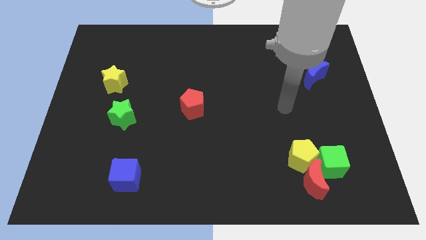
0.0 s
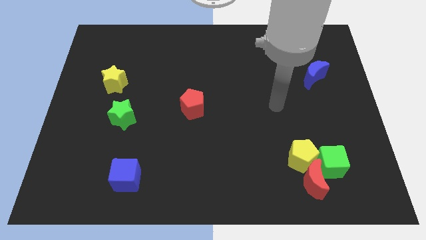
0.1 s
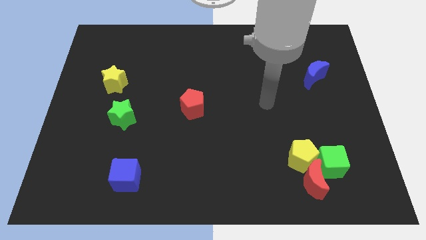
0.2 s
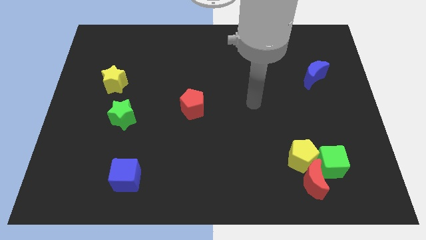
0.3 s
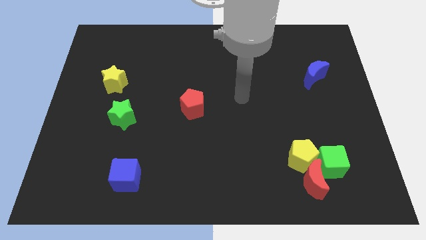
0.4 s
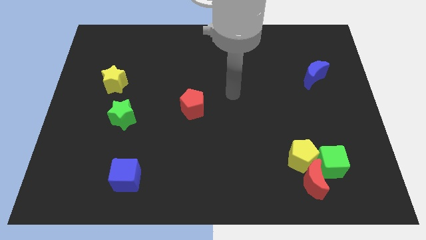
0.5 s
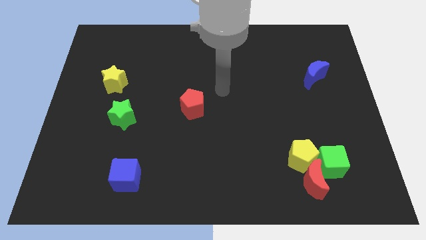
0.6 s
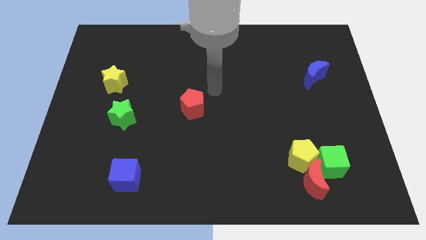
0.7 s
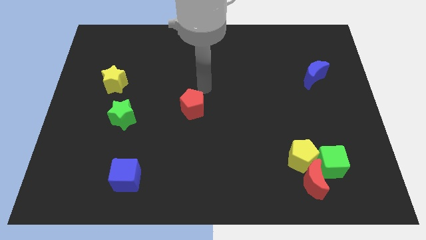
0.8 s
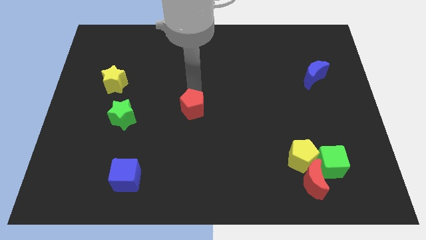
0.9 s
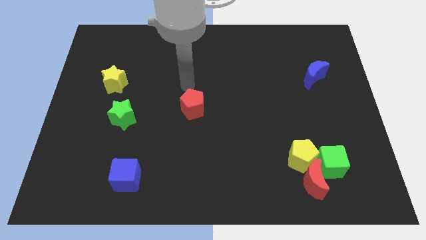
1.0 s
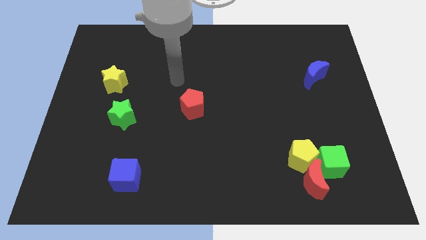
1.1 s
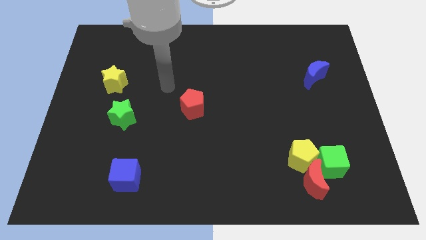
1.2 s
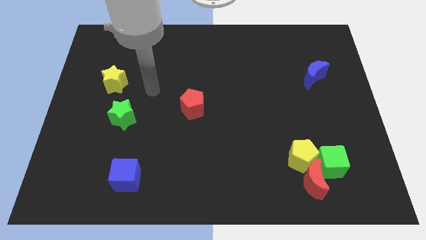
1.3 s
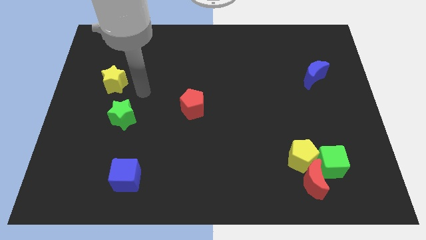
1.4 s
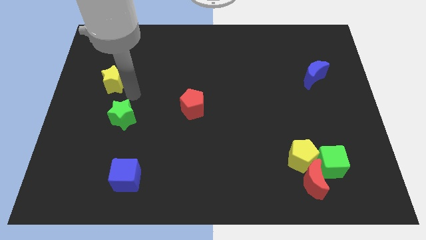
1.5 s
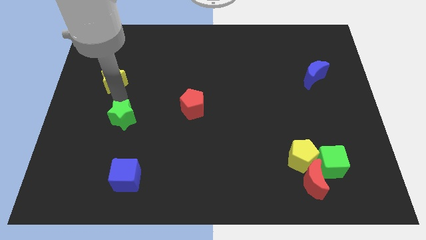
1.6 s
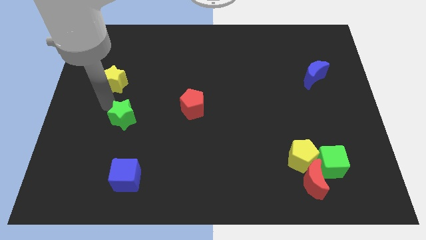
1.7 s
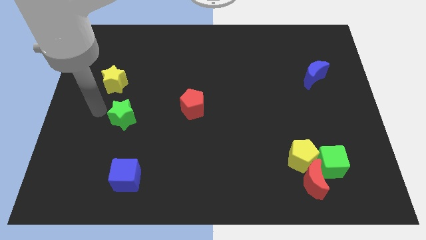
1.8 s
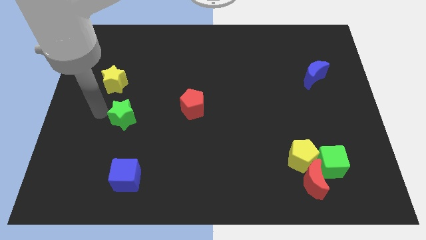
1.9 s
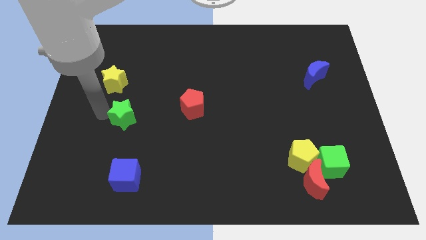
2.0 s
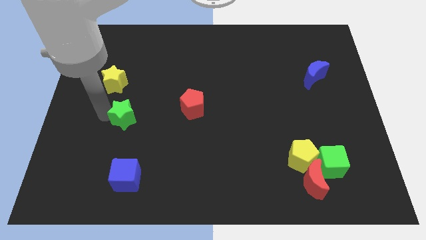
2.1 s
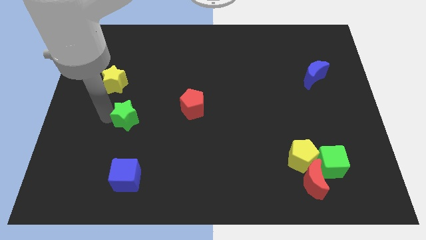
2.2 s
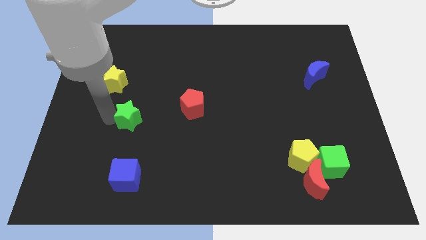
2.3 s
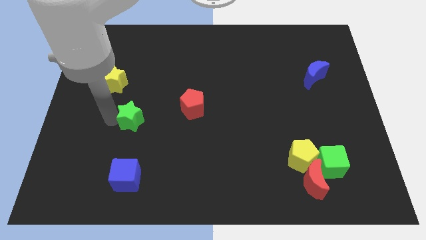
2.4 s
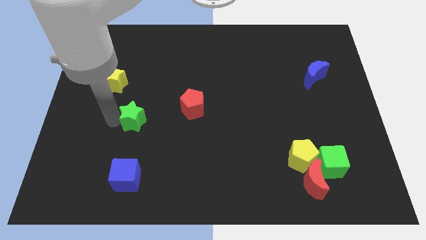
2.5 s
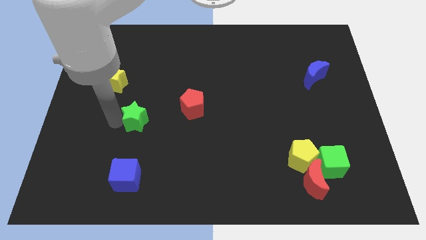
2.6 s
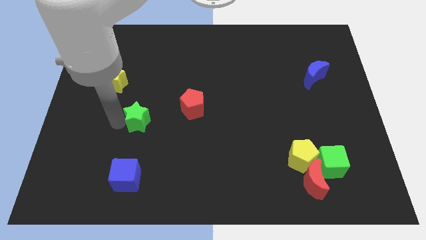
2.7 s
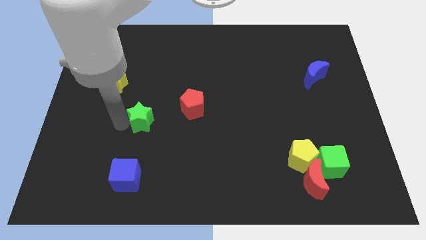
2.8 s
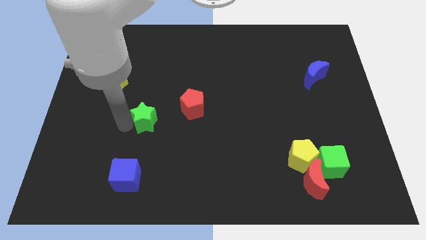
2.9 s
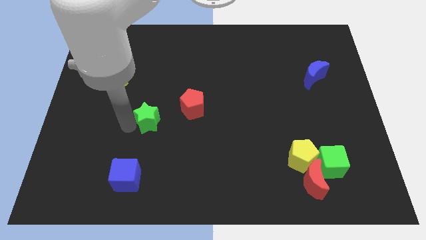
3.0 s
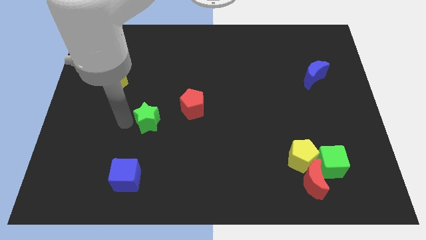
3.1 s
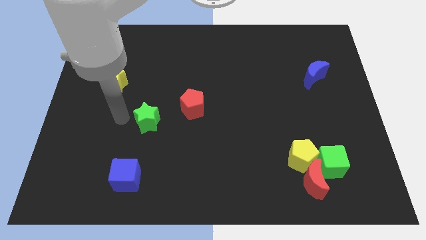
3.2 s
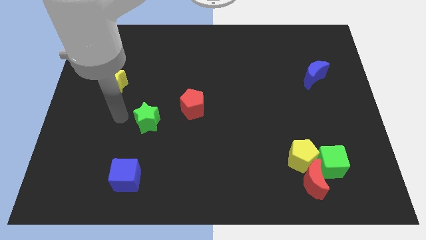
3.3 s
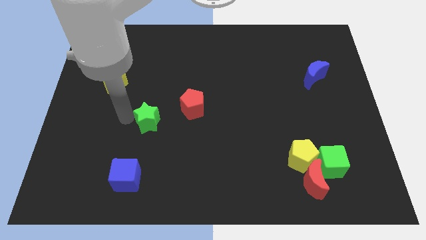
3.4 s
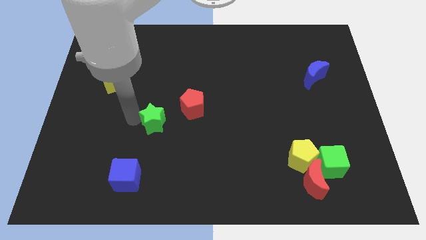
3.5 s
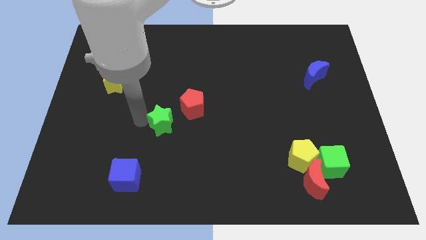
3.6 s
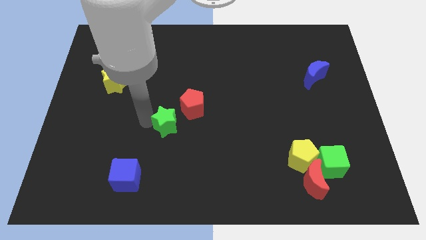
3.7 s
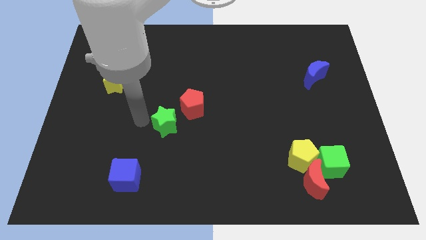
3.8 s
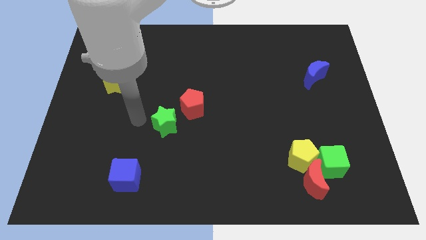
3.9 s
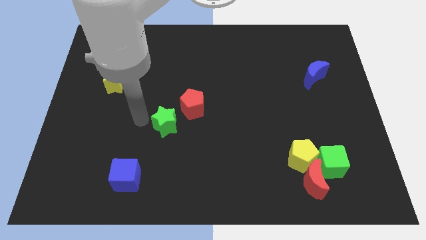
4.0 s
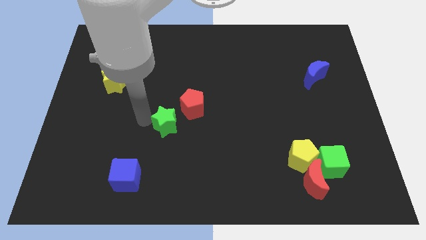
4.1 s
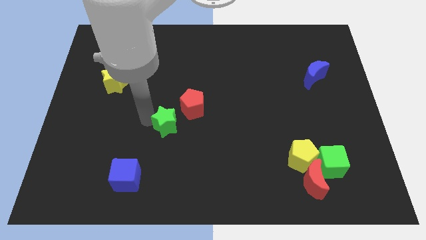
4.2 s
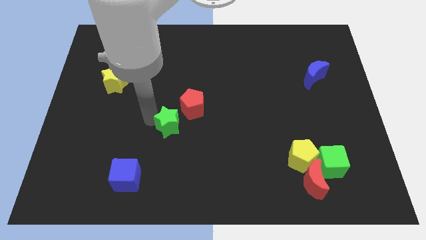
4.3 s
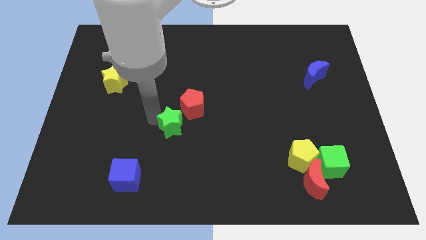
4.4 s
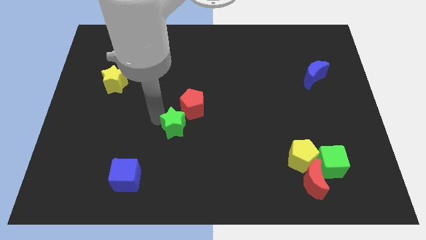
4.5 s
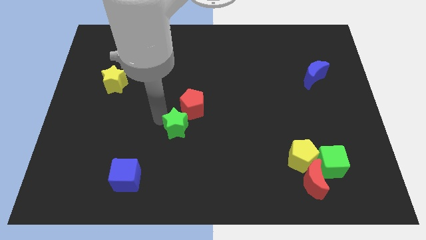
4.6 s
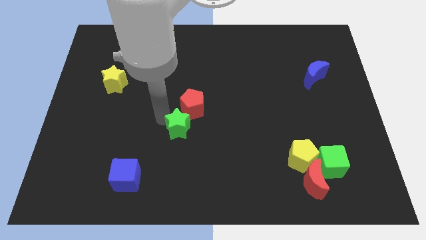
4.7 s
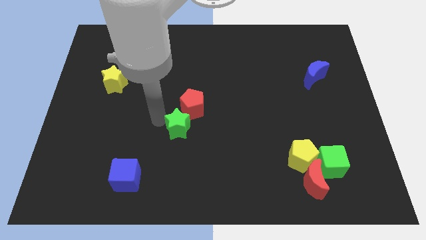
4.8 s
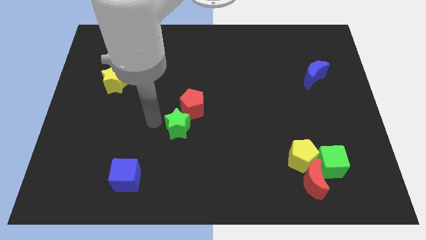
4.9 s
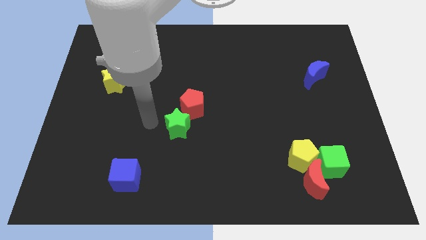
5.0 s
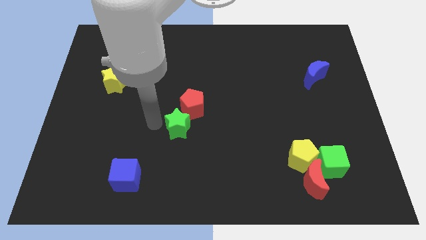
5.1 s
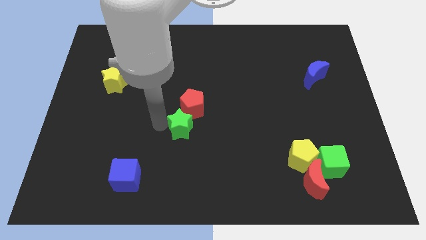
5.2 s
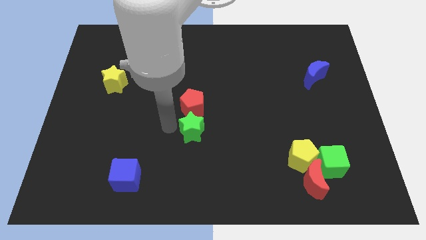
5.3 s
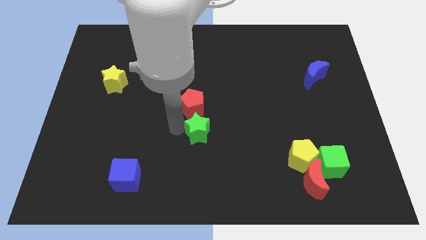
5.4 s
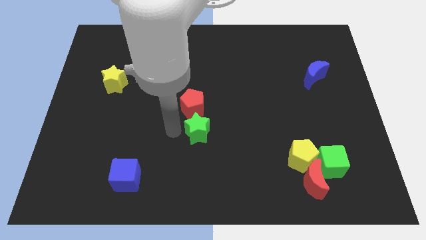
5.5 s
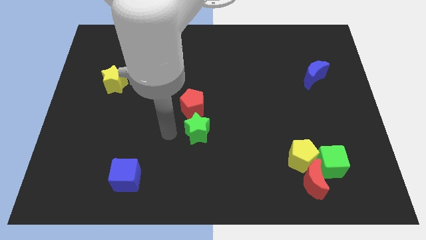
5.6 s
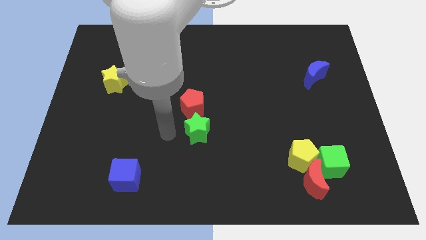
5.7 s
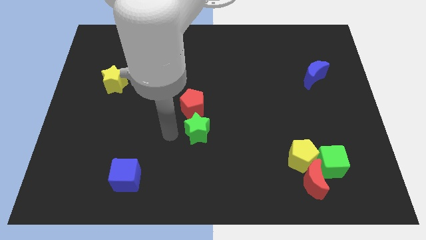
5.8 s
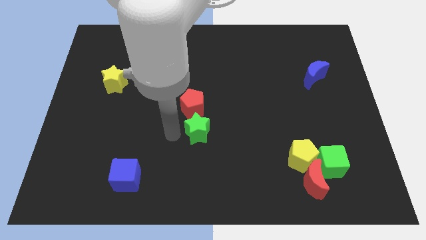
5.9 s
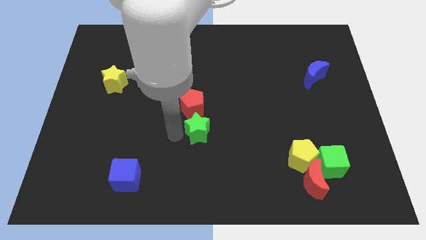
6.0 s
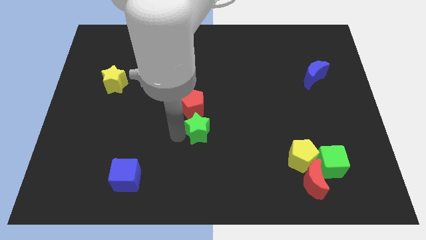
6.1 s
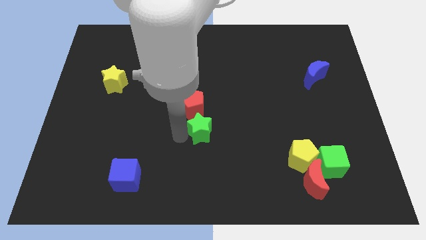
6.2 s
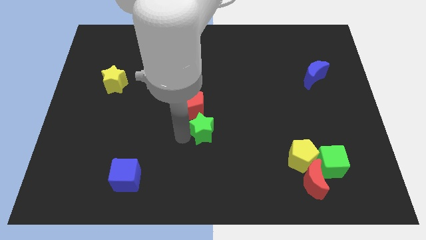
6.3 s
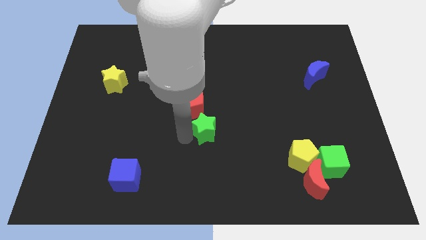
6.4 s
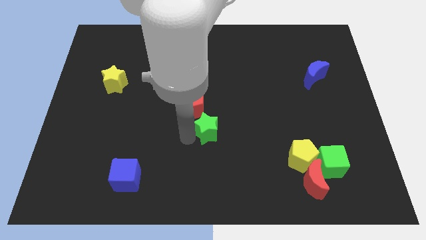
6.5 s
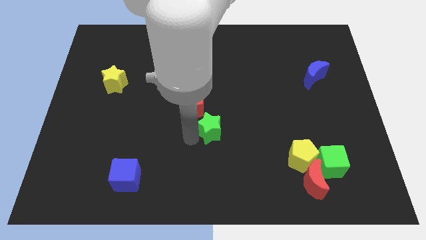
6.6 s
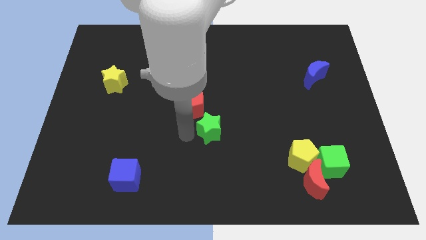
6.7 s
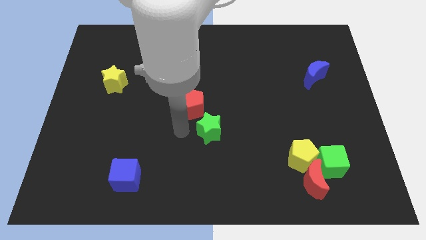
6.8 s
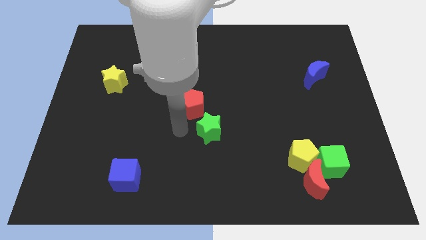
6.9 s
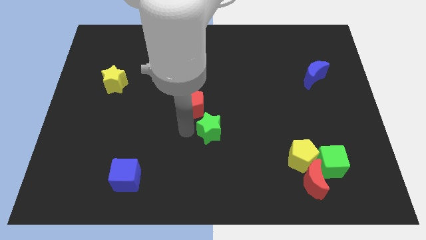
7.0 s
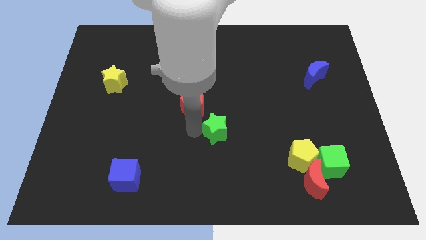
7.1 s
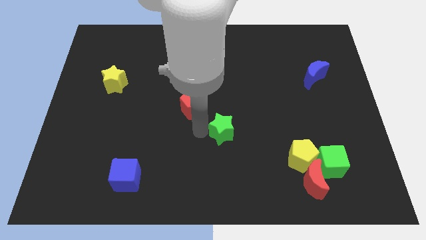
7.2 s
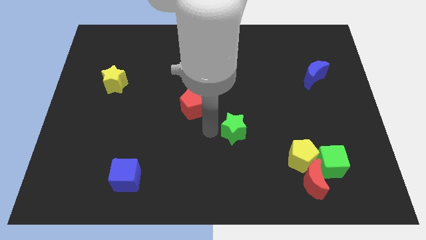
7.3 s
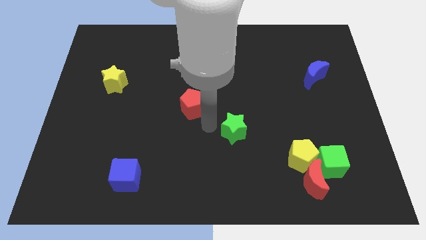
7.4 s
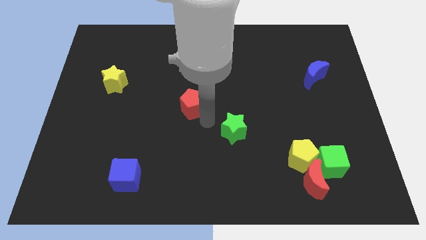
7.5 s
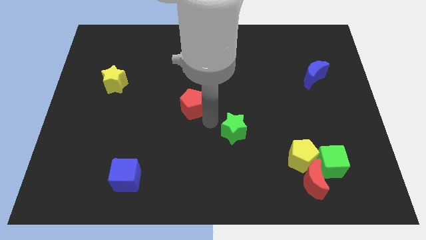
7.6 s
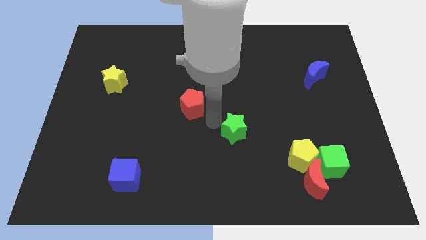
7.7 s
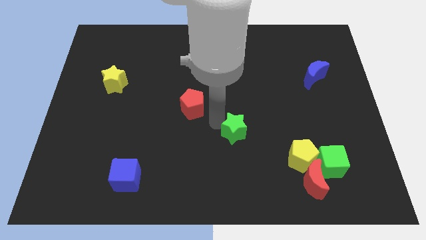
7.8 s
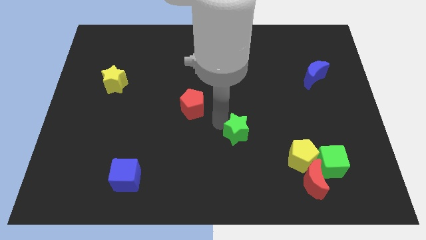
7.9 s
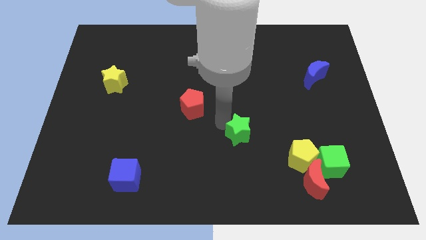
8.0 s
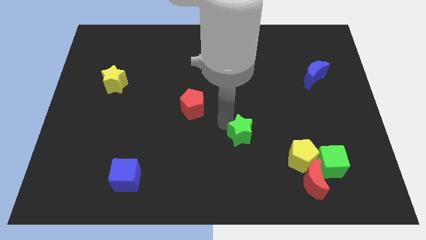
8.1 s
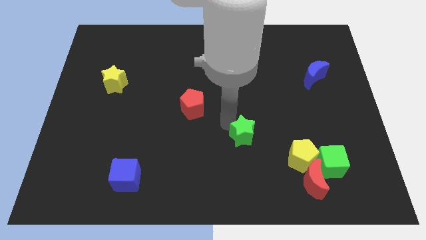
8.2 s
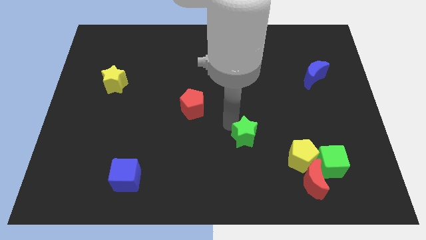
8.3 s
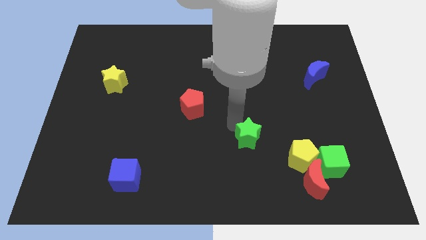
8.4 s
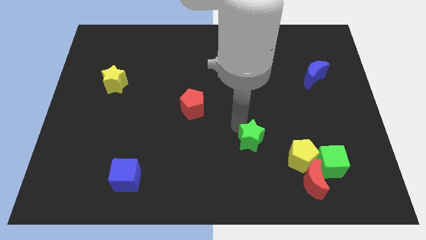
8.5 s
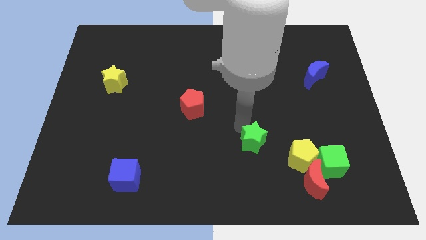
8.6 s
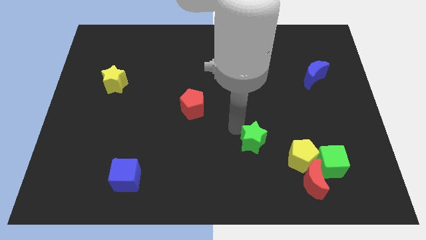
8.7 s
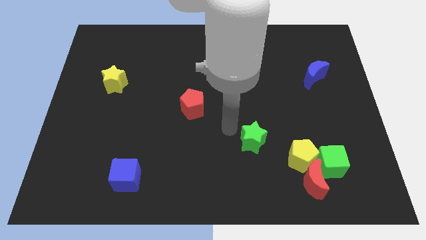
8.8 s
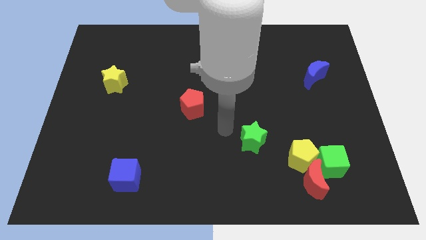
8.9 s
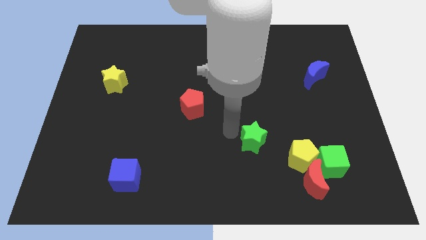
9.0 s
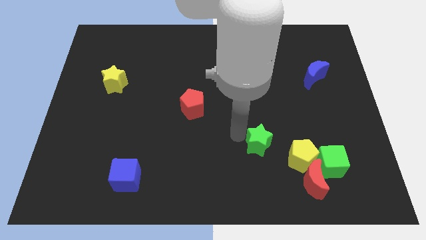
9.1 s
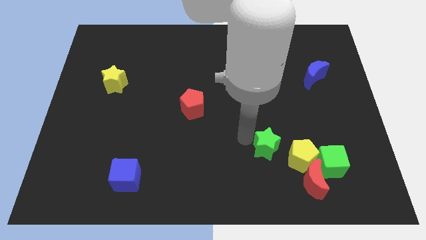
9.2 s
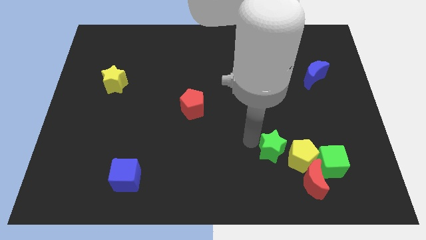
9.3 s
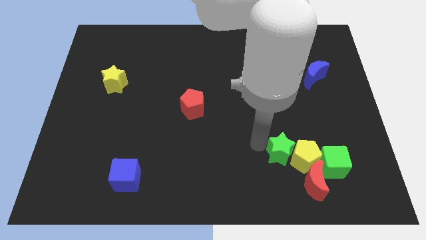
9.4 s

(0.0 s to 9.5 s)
move the green star close to the yellow pentagon
